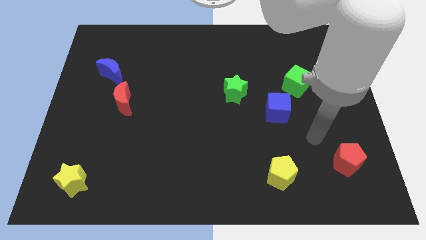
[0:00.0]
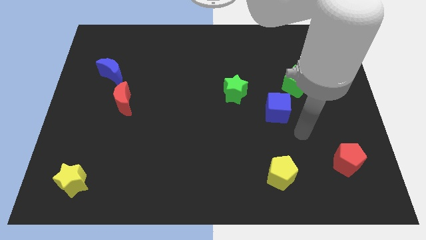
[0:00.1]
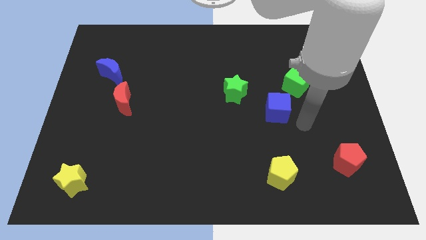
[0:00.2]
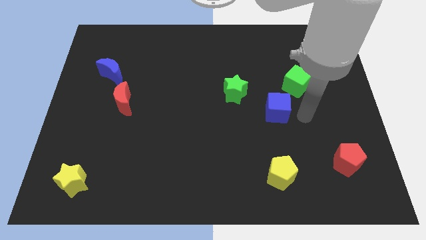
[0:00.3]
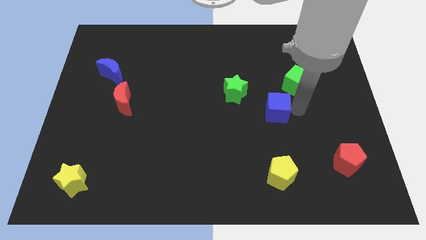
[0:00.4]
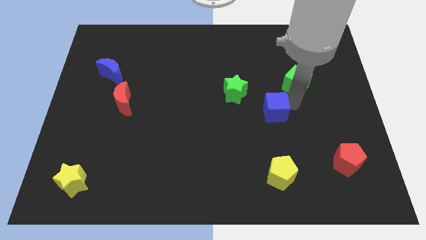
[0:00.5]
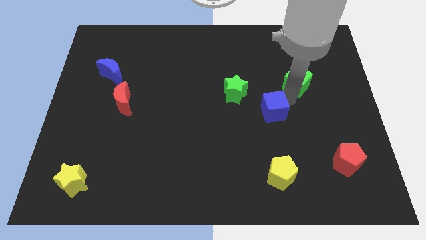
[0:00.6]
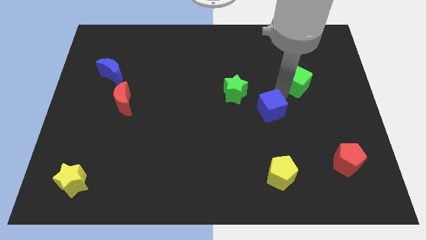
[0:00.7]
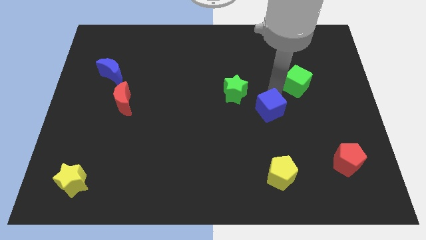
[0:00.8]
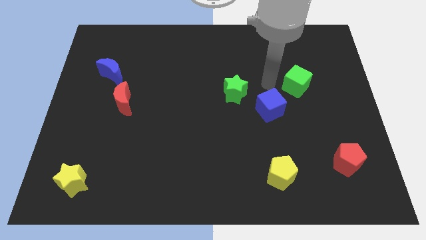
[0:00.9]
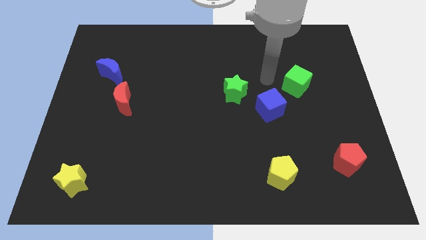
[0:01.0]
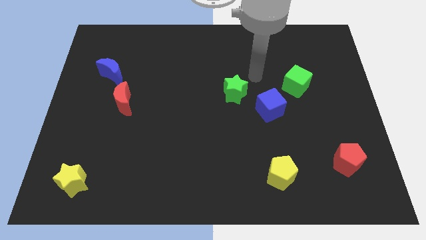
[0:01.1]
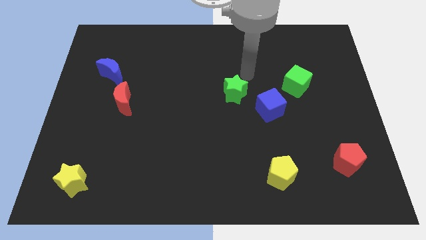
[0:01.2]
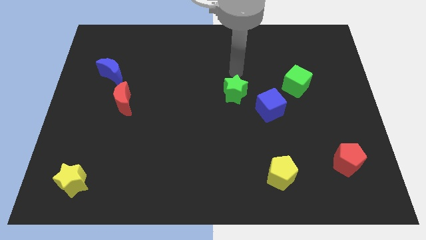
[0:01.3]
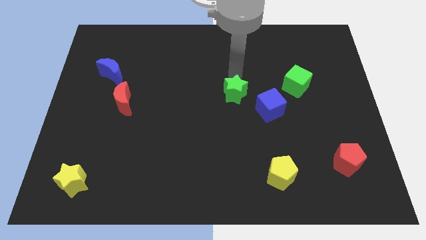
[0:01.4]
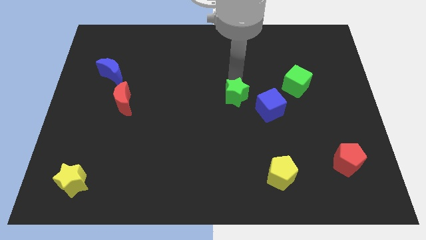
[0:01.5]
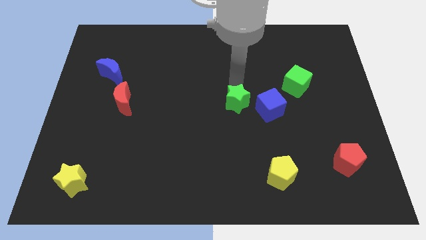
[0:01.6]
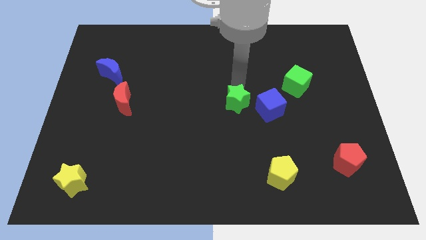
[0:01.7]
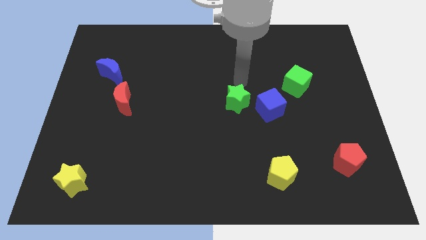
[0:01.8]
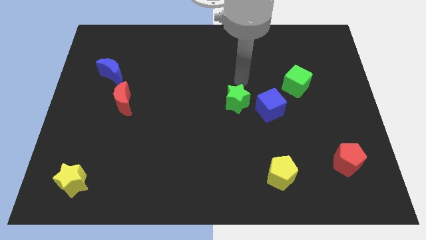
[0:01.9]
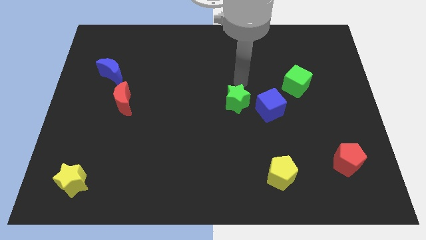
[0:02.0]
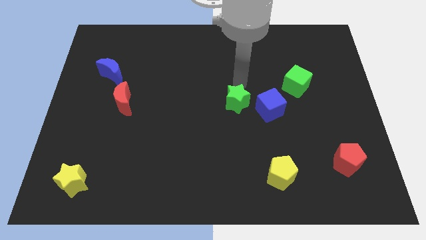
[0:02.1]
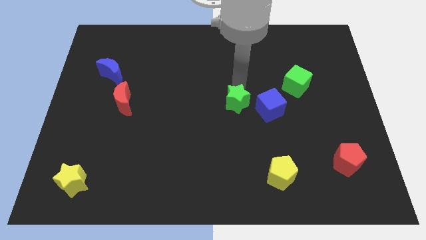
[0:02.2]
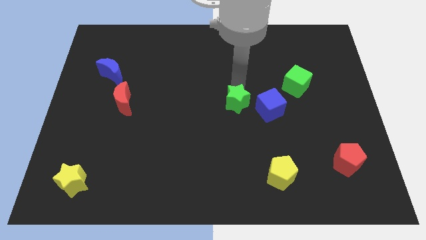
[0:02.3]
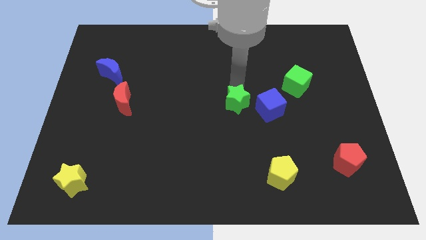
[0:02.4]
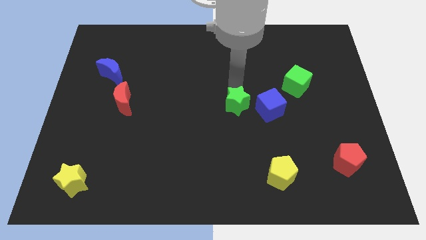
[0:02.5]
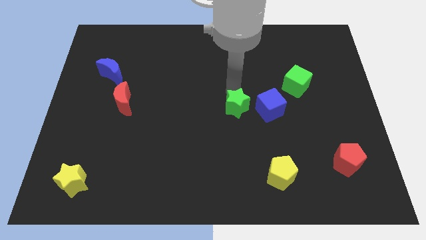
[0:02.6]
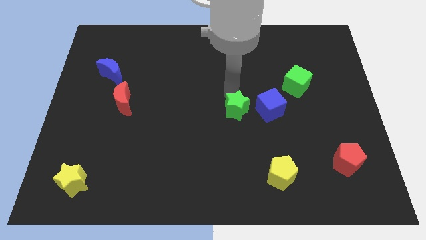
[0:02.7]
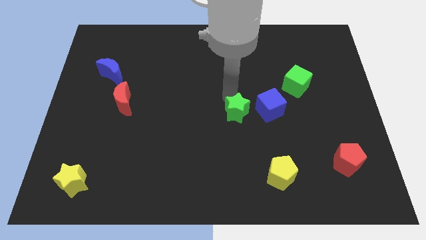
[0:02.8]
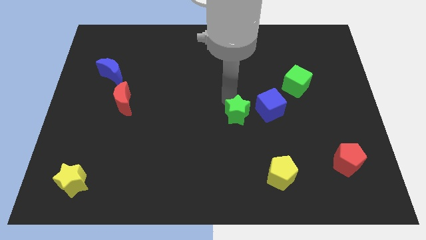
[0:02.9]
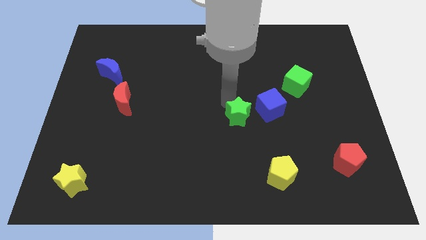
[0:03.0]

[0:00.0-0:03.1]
push the green star down a bit

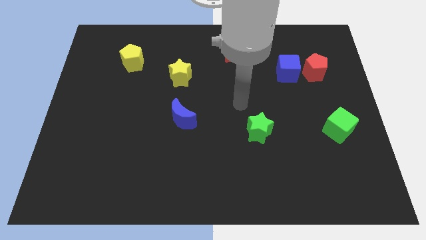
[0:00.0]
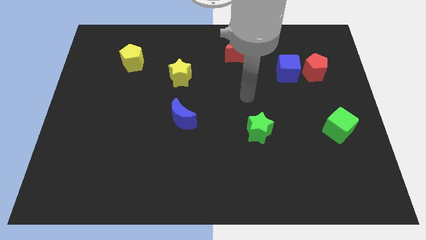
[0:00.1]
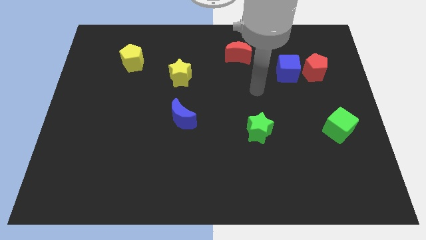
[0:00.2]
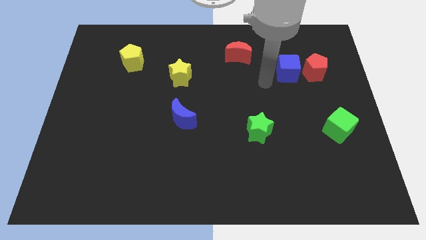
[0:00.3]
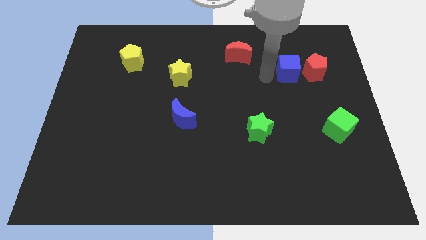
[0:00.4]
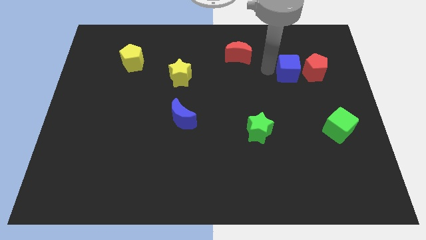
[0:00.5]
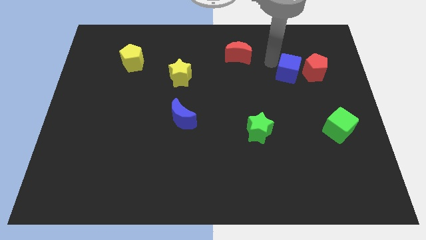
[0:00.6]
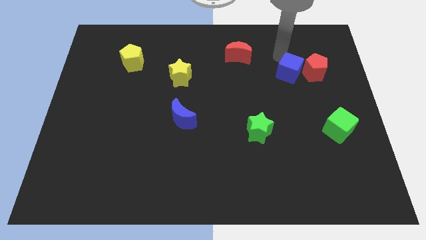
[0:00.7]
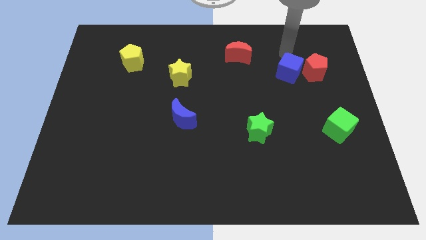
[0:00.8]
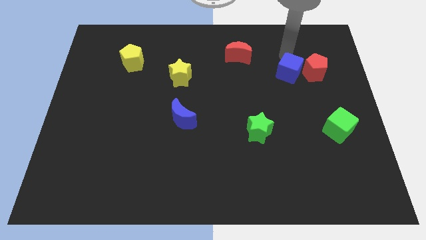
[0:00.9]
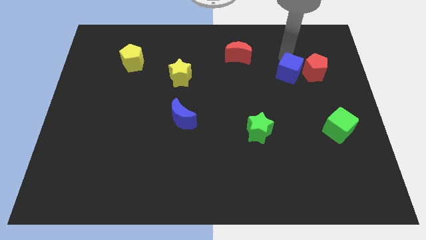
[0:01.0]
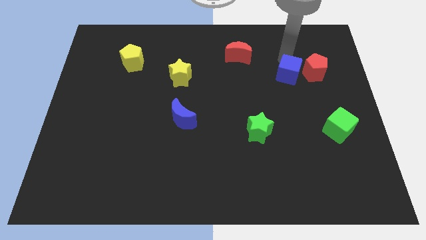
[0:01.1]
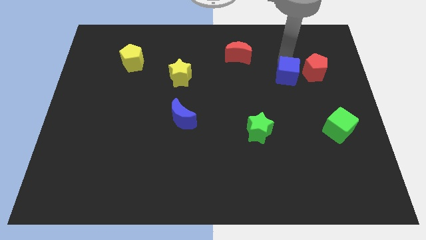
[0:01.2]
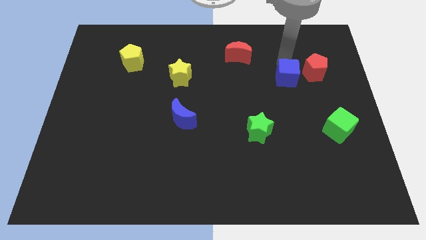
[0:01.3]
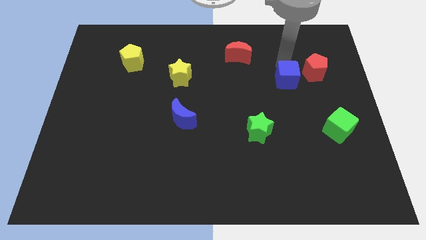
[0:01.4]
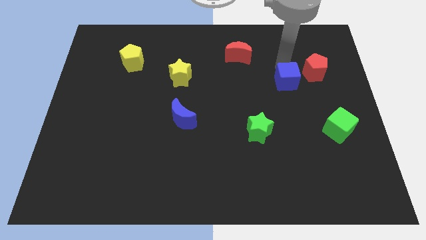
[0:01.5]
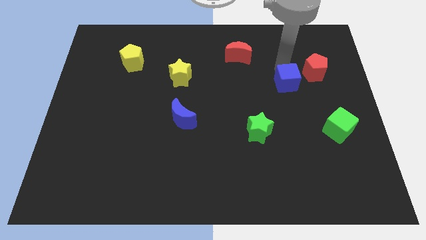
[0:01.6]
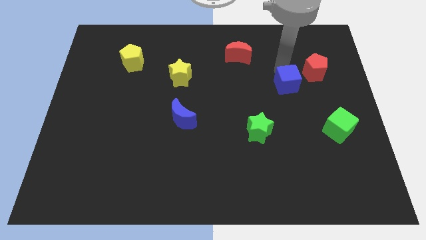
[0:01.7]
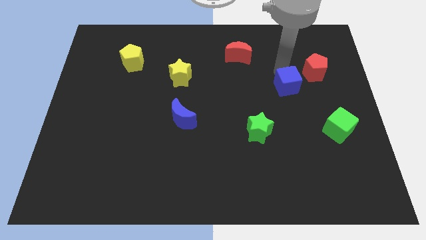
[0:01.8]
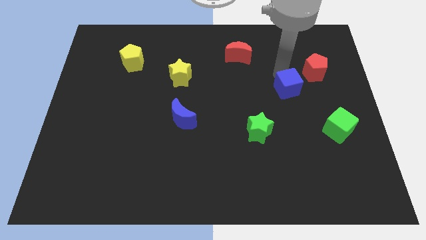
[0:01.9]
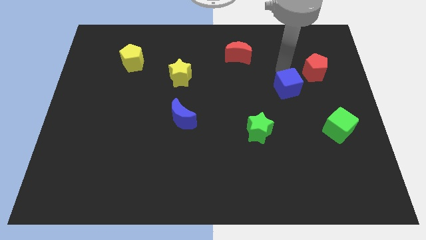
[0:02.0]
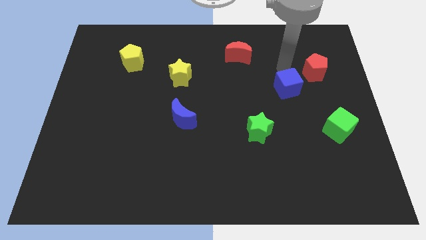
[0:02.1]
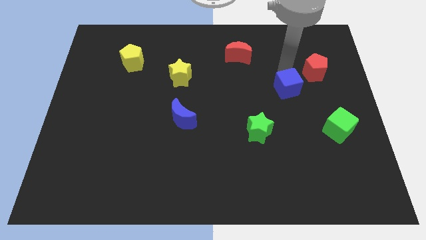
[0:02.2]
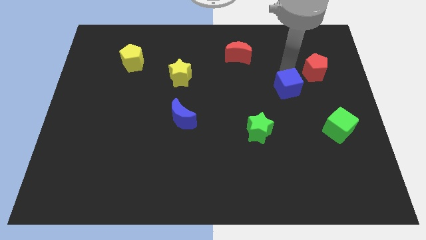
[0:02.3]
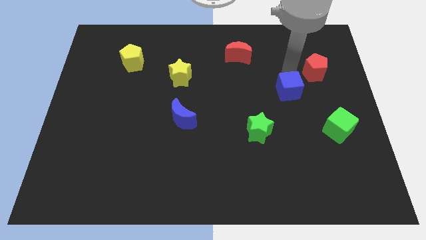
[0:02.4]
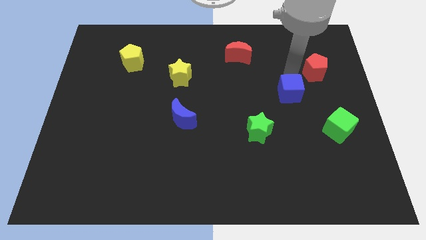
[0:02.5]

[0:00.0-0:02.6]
push the blue cube downwards a little

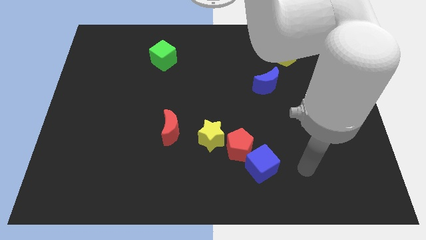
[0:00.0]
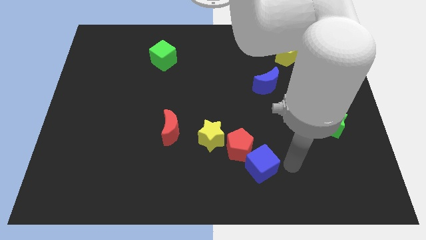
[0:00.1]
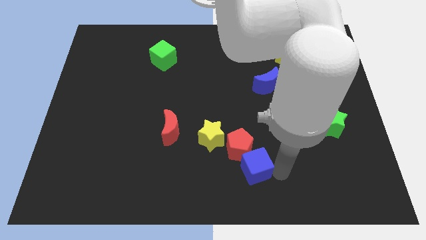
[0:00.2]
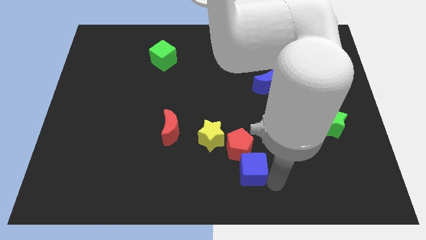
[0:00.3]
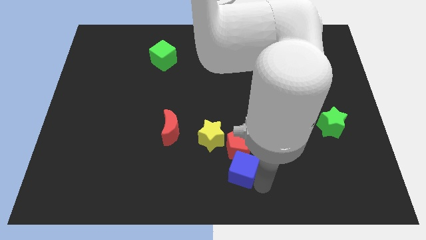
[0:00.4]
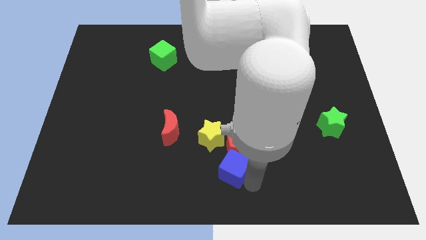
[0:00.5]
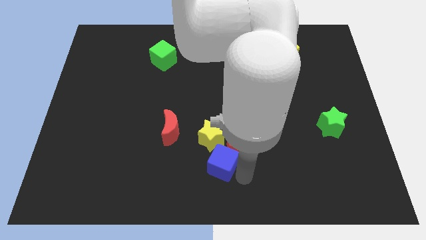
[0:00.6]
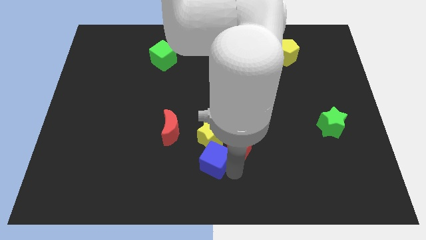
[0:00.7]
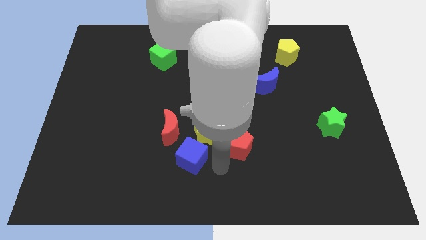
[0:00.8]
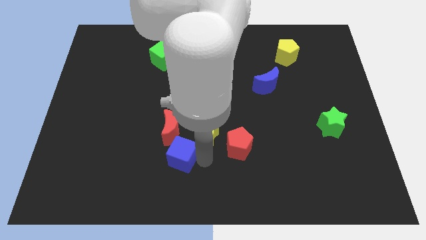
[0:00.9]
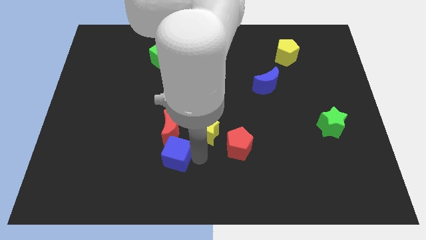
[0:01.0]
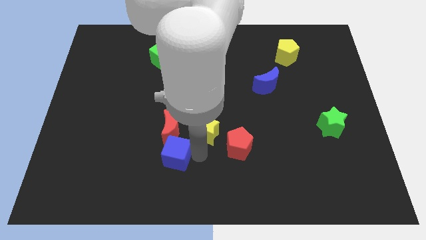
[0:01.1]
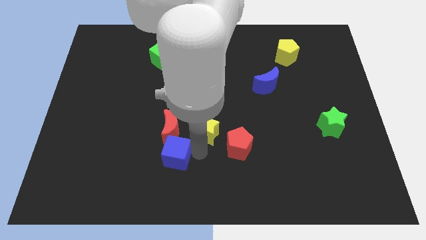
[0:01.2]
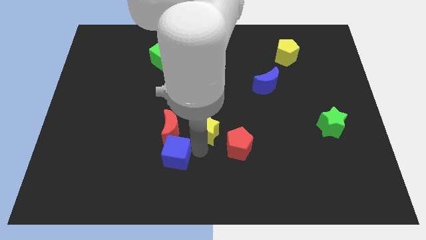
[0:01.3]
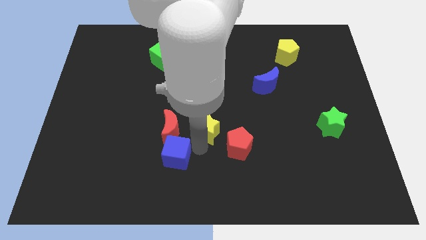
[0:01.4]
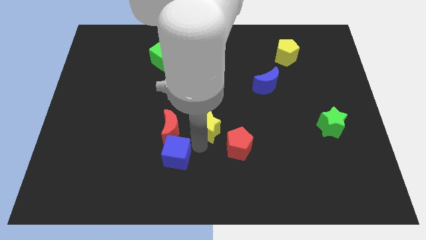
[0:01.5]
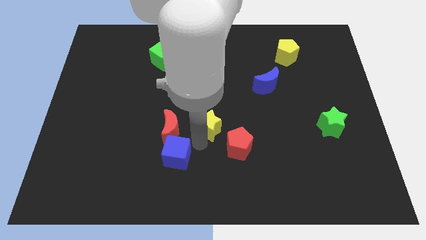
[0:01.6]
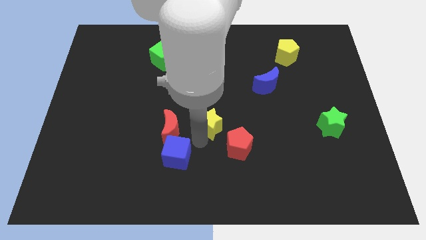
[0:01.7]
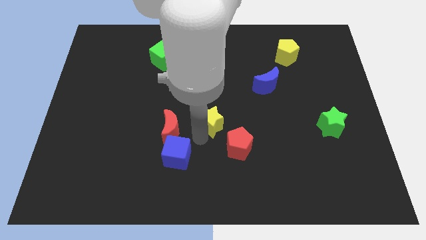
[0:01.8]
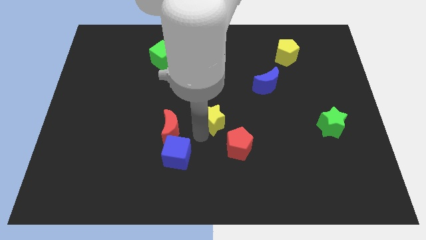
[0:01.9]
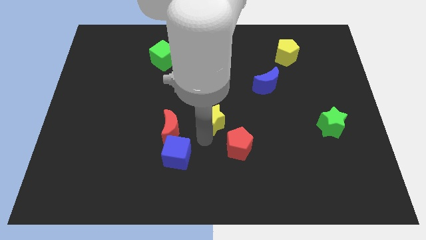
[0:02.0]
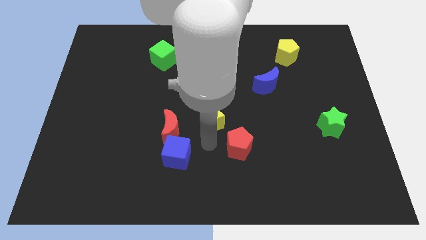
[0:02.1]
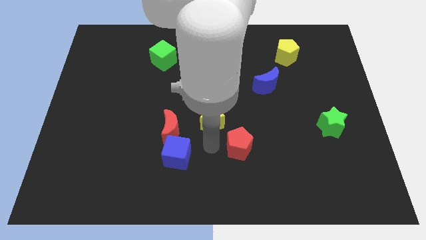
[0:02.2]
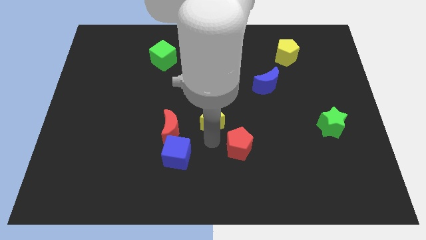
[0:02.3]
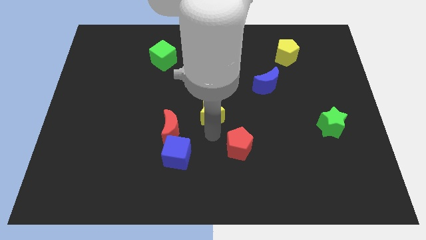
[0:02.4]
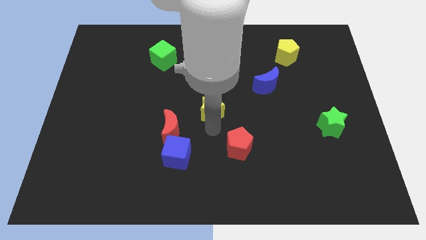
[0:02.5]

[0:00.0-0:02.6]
push the yellow star a bit up
